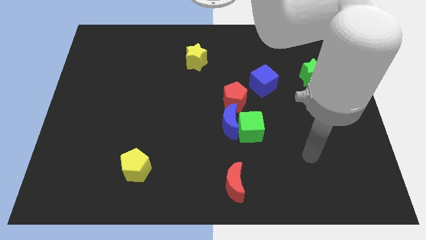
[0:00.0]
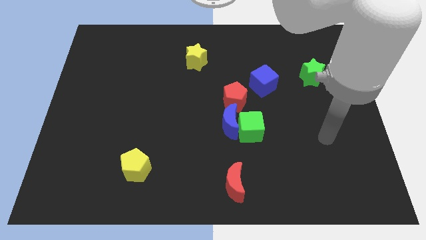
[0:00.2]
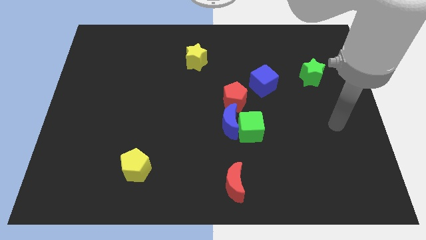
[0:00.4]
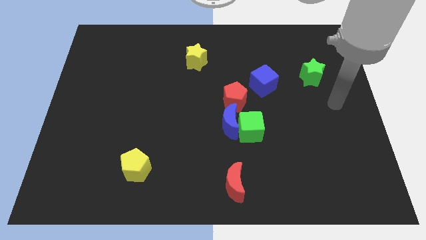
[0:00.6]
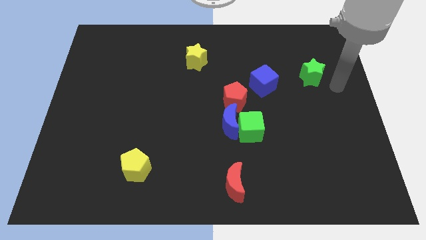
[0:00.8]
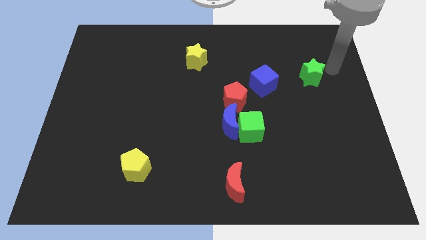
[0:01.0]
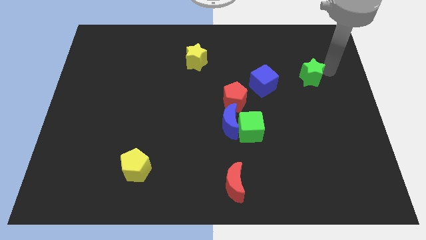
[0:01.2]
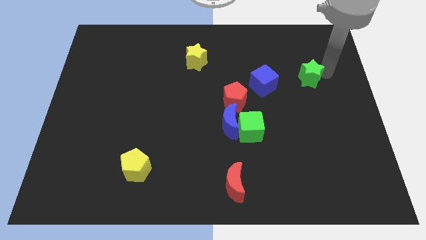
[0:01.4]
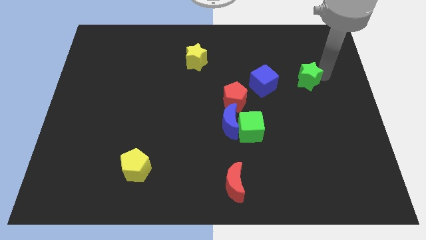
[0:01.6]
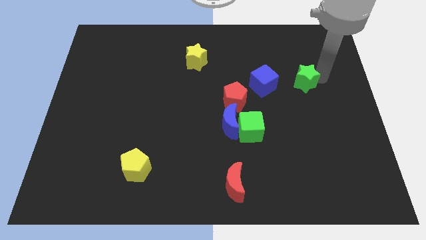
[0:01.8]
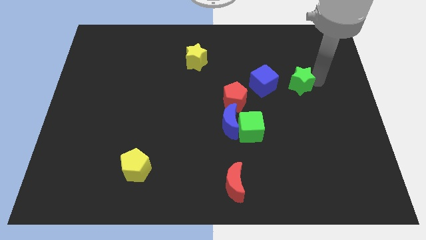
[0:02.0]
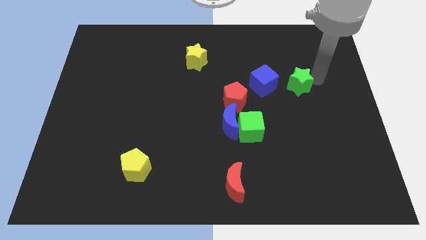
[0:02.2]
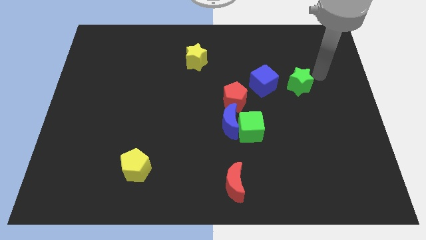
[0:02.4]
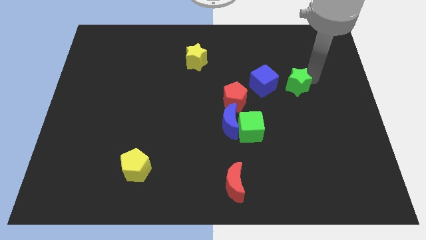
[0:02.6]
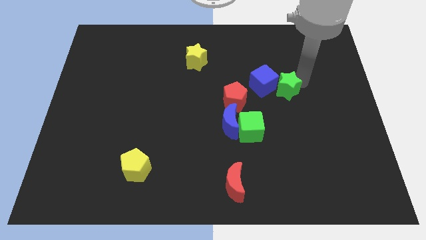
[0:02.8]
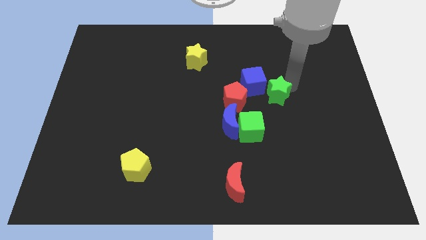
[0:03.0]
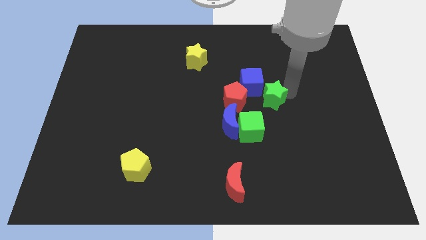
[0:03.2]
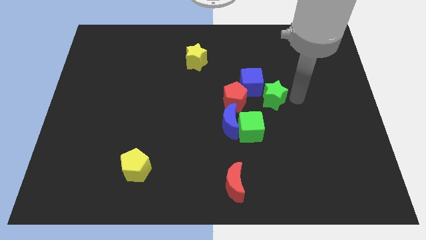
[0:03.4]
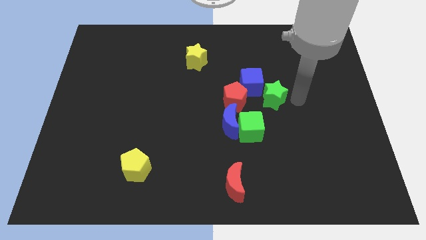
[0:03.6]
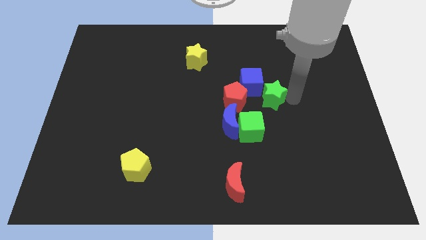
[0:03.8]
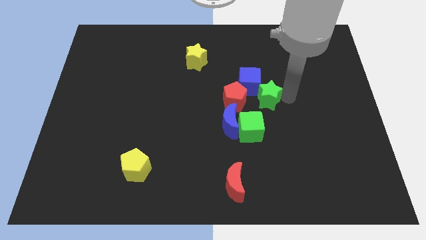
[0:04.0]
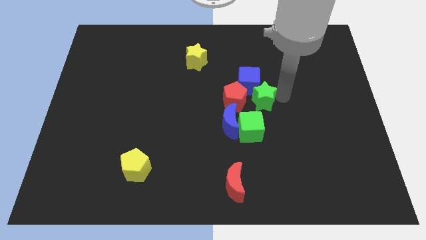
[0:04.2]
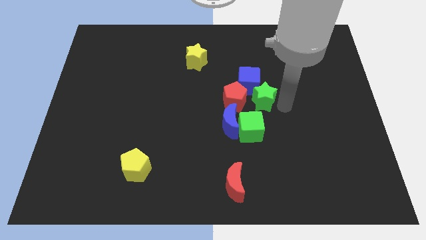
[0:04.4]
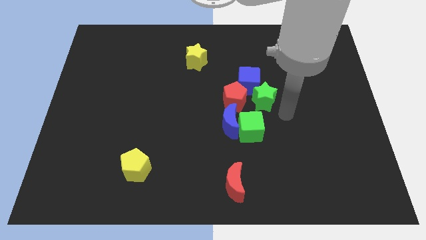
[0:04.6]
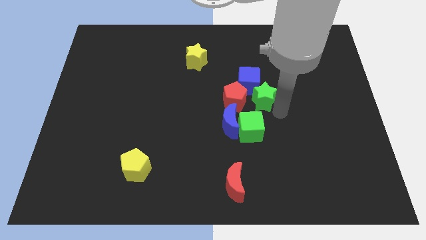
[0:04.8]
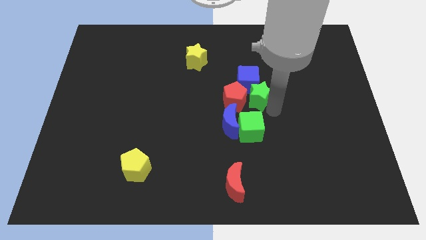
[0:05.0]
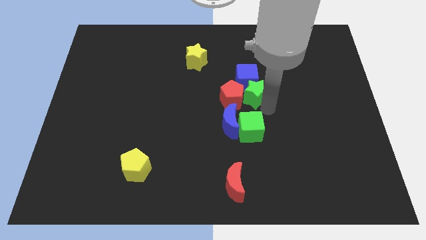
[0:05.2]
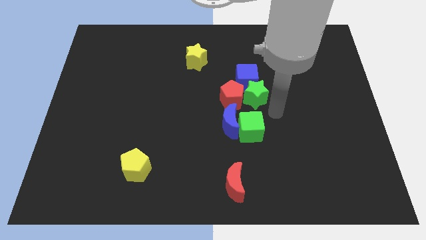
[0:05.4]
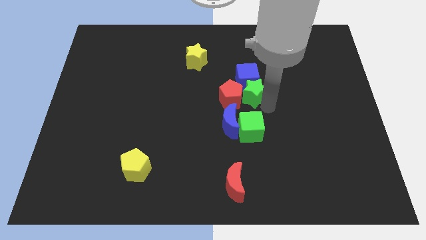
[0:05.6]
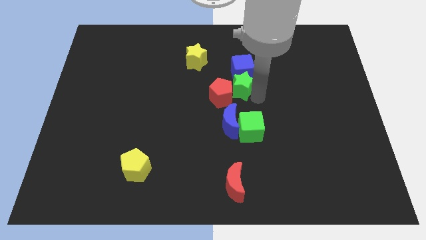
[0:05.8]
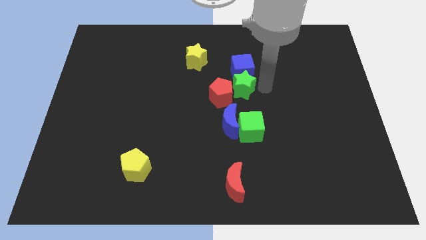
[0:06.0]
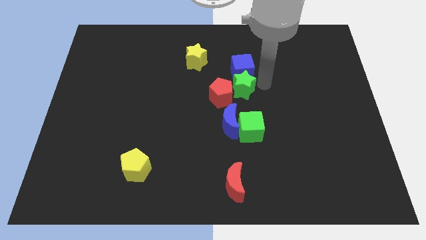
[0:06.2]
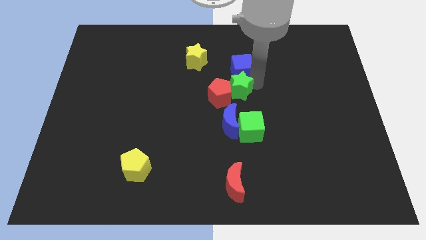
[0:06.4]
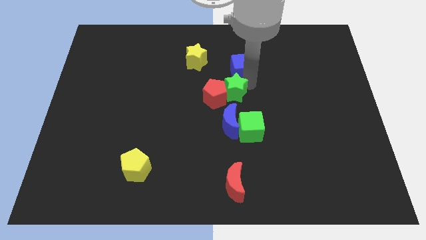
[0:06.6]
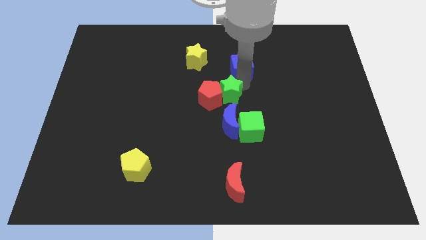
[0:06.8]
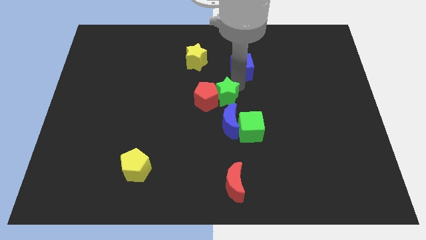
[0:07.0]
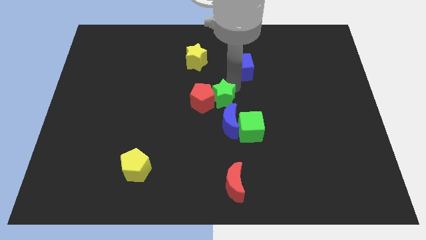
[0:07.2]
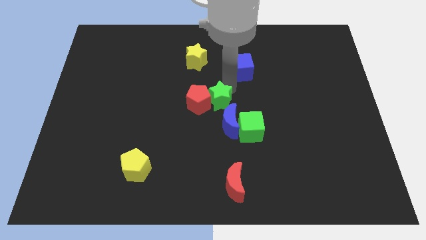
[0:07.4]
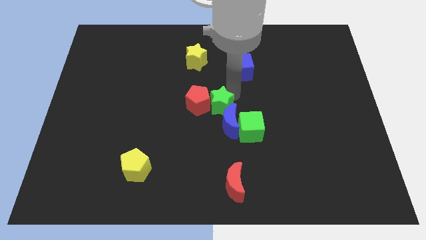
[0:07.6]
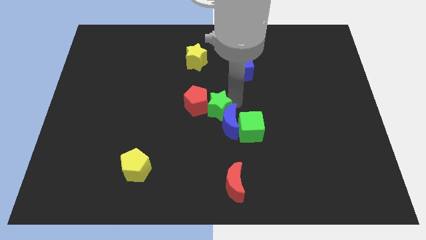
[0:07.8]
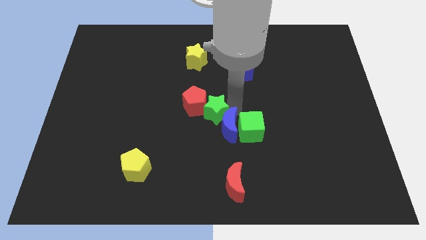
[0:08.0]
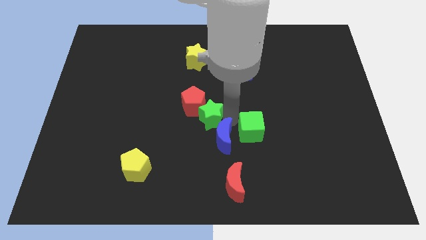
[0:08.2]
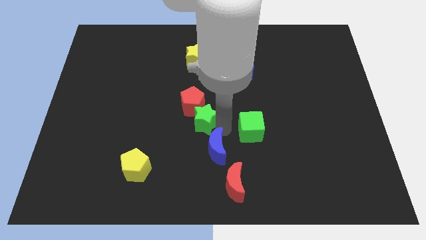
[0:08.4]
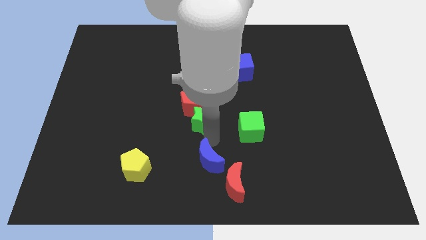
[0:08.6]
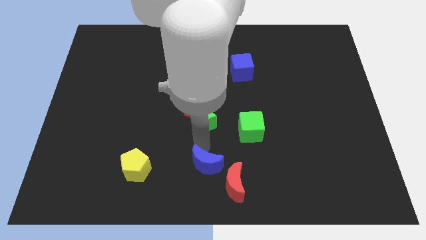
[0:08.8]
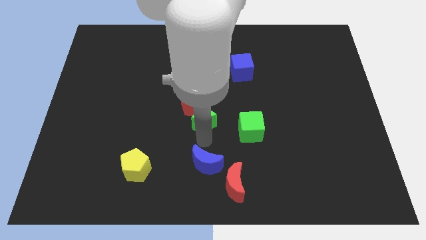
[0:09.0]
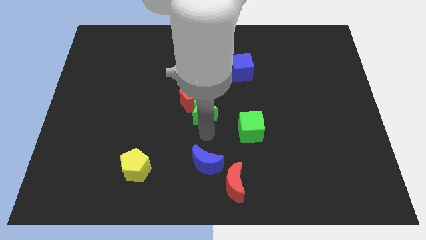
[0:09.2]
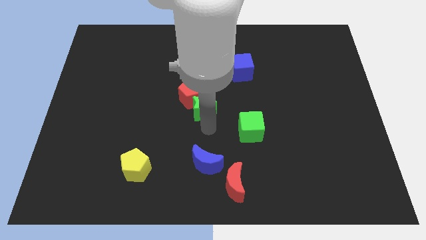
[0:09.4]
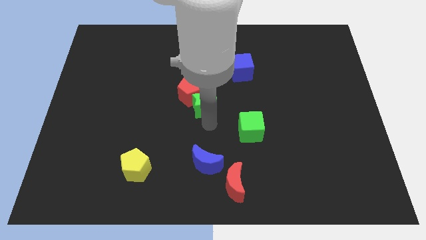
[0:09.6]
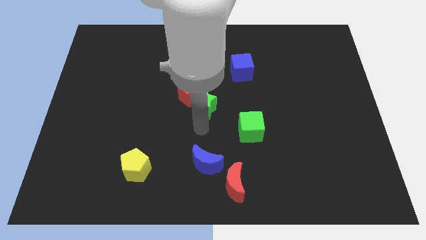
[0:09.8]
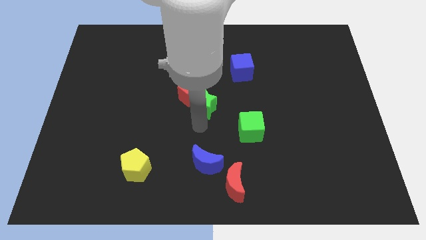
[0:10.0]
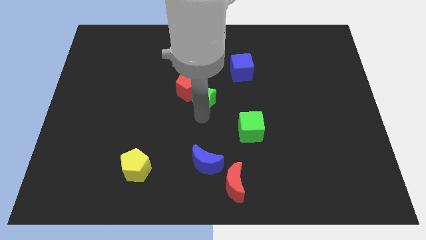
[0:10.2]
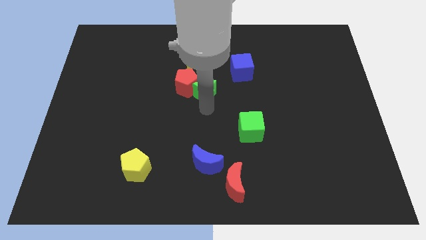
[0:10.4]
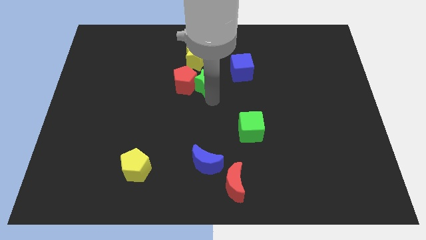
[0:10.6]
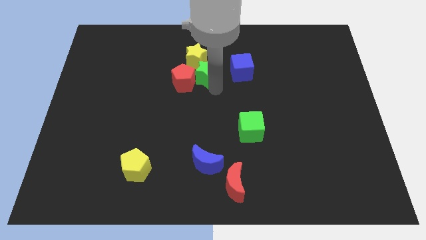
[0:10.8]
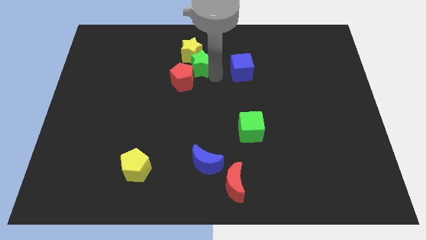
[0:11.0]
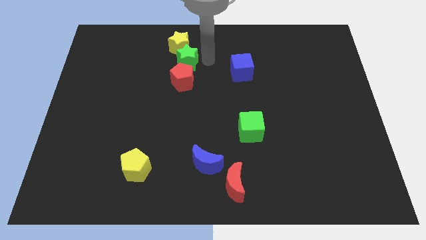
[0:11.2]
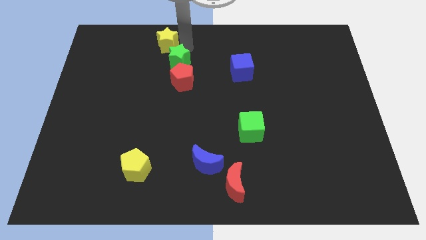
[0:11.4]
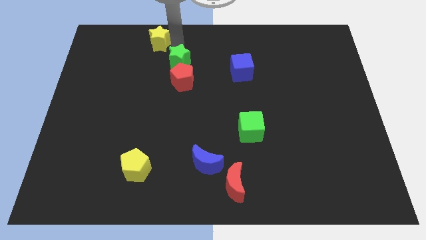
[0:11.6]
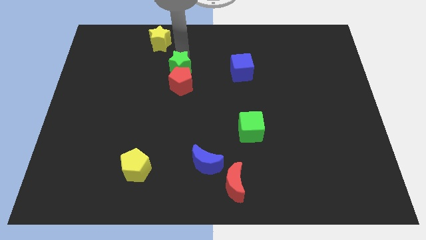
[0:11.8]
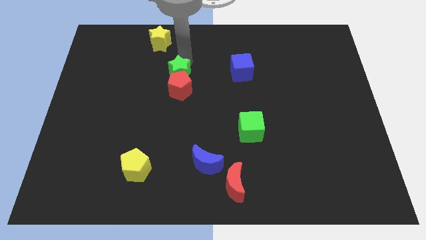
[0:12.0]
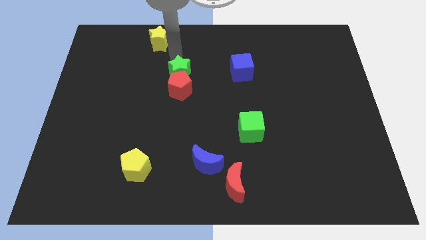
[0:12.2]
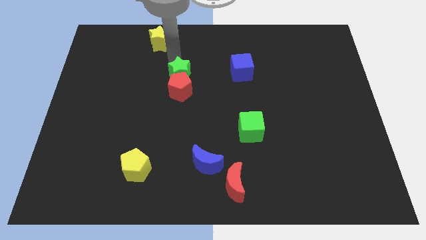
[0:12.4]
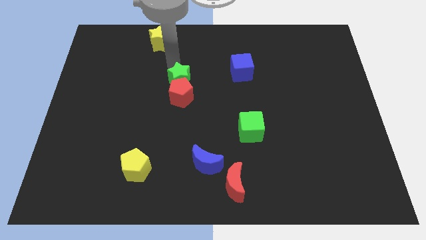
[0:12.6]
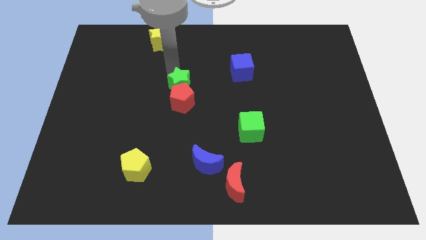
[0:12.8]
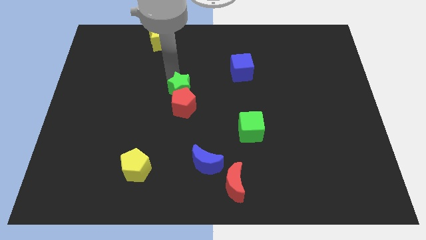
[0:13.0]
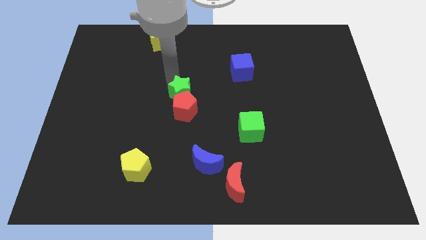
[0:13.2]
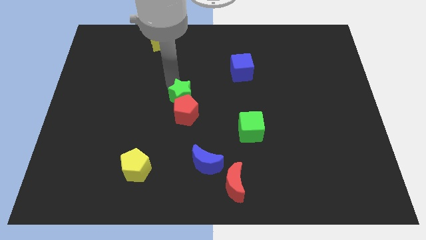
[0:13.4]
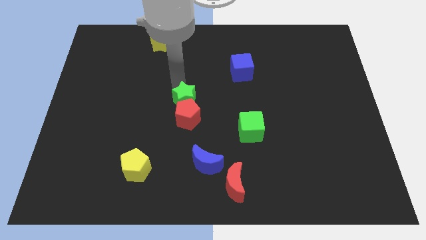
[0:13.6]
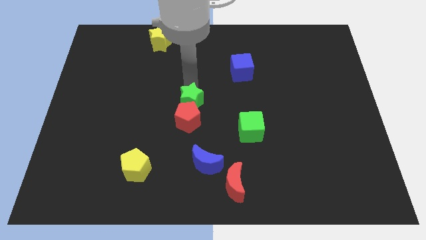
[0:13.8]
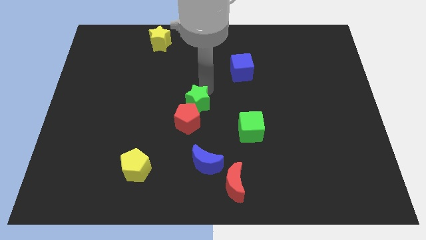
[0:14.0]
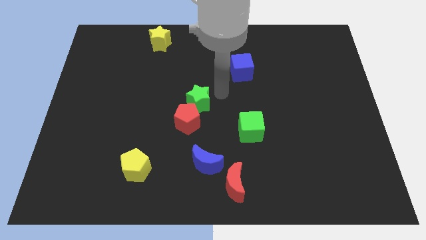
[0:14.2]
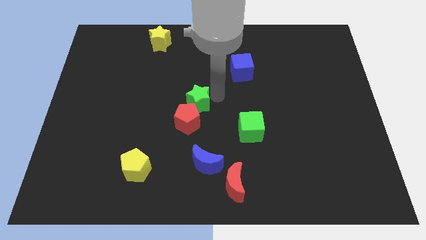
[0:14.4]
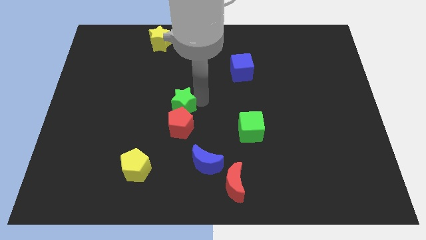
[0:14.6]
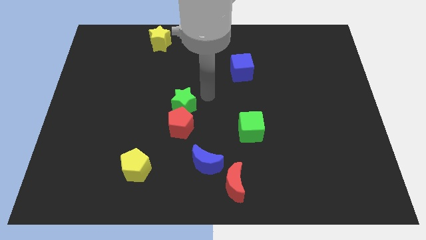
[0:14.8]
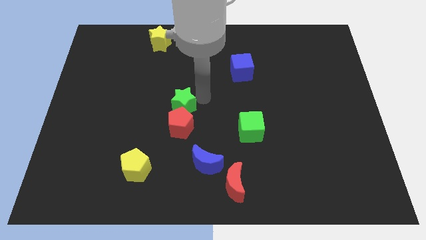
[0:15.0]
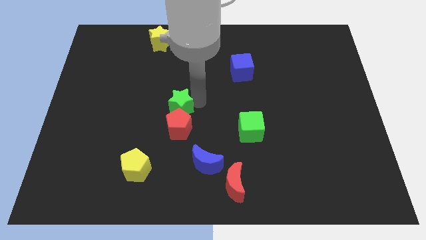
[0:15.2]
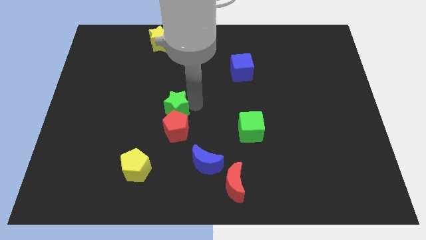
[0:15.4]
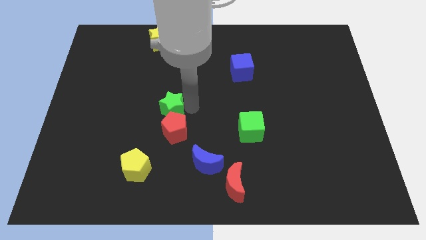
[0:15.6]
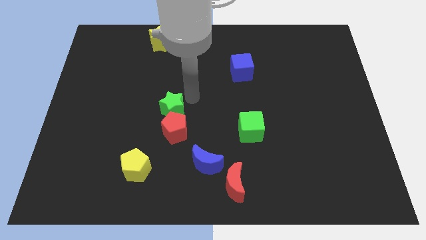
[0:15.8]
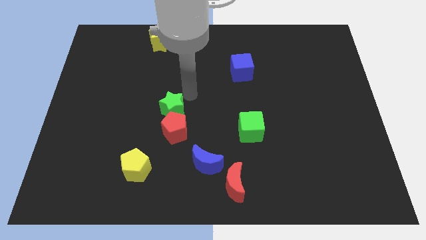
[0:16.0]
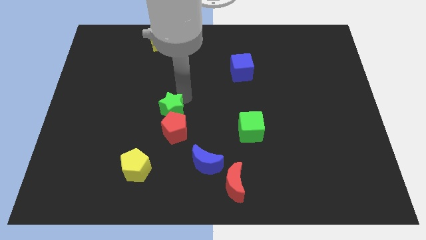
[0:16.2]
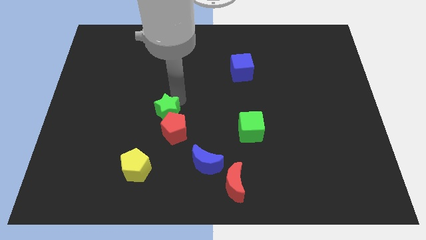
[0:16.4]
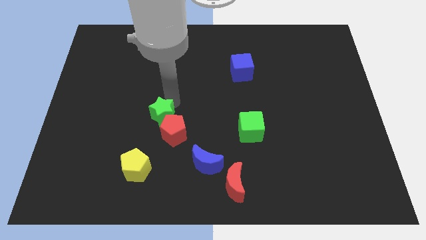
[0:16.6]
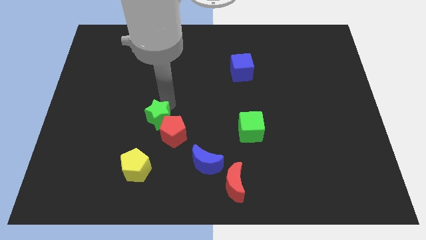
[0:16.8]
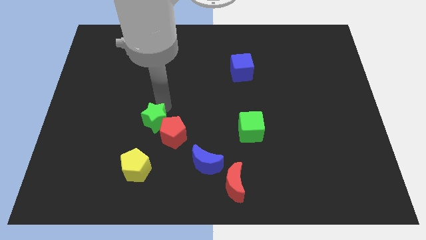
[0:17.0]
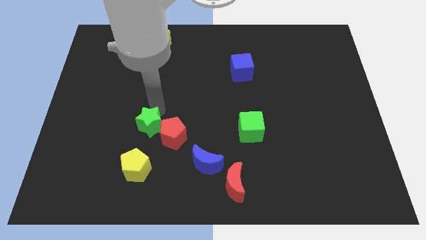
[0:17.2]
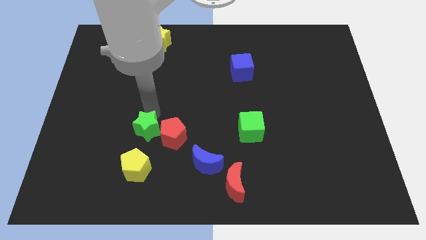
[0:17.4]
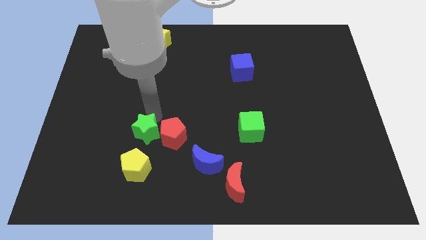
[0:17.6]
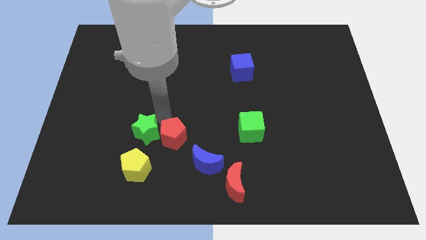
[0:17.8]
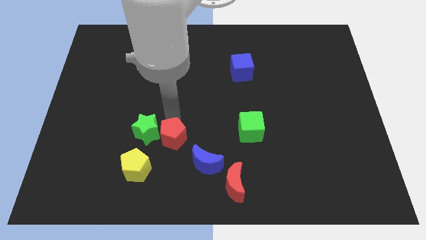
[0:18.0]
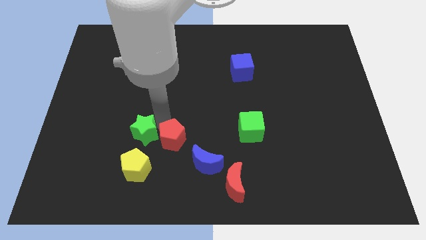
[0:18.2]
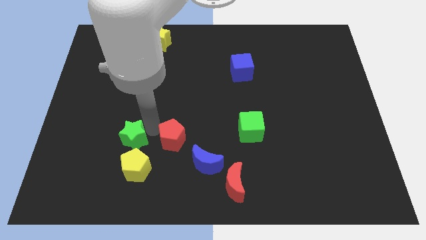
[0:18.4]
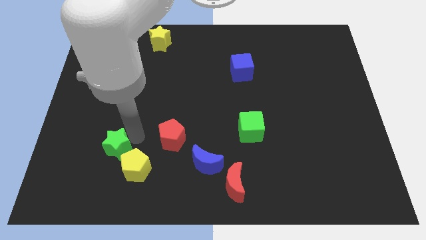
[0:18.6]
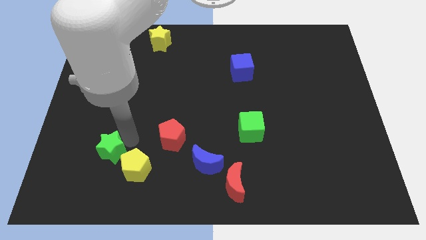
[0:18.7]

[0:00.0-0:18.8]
put the green star left of the yellow pentagon
